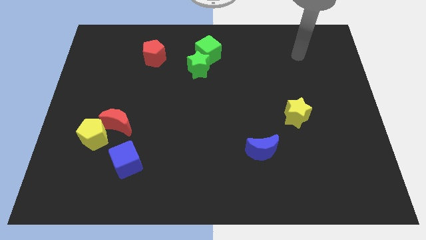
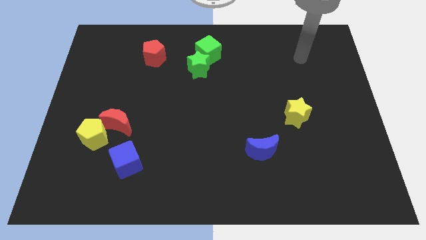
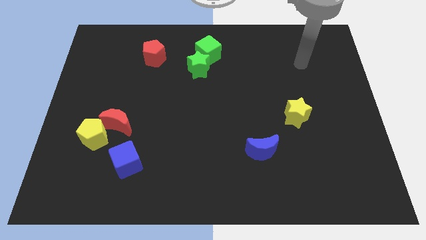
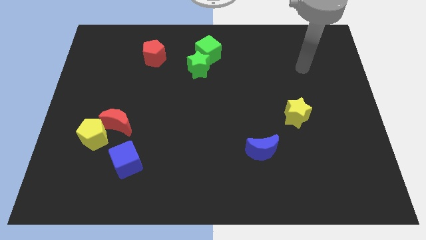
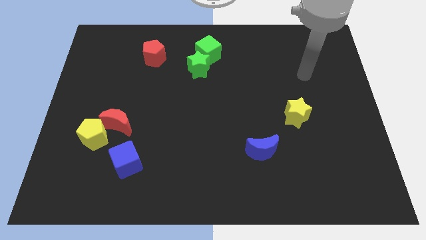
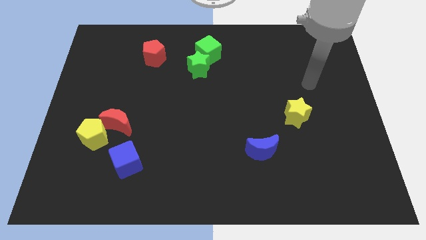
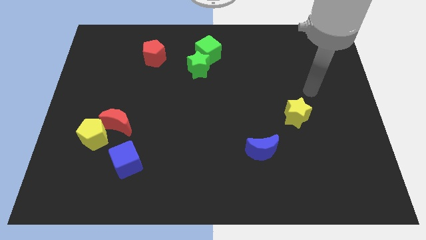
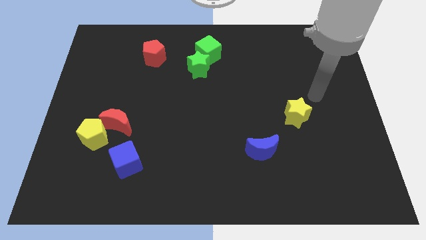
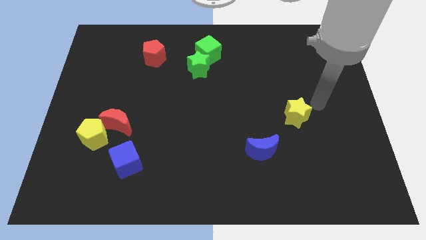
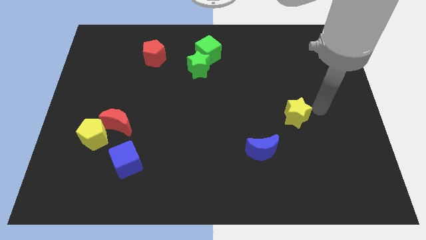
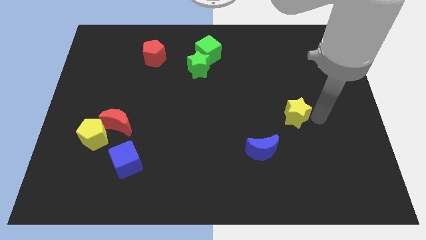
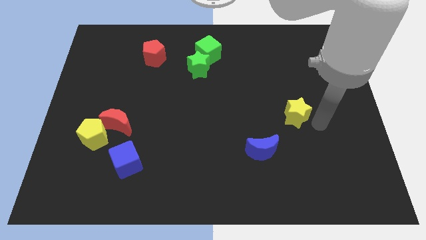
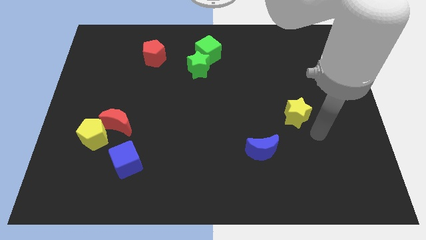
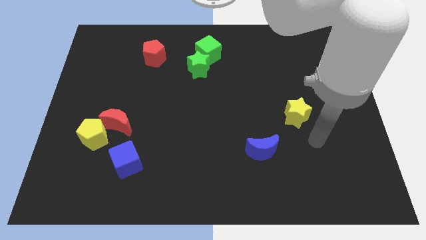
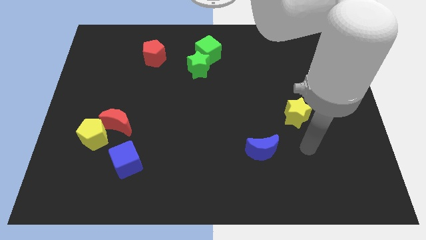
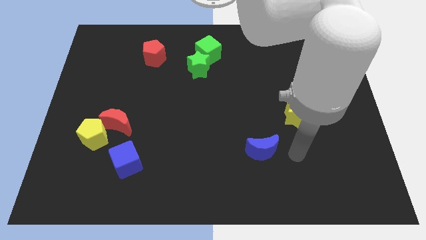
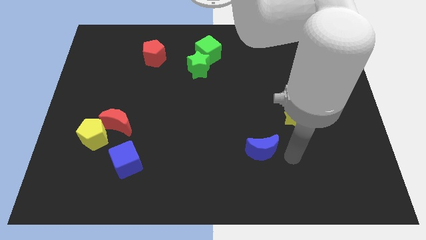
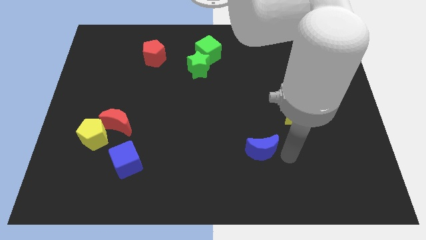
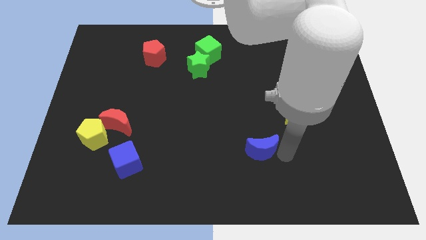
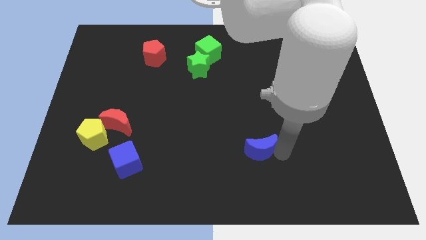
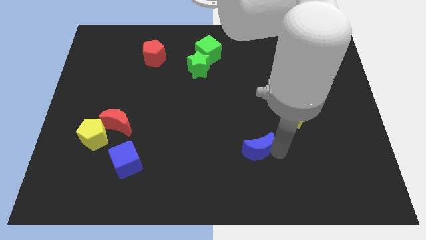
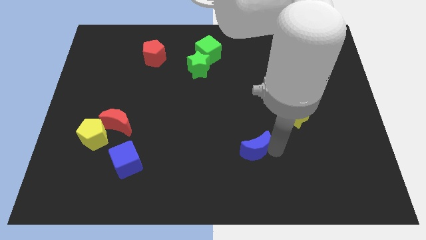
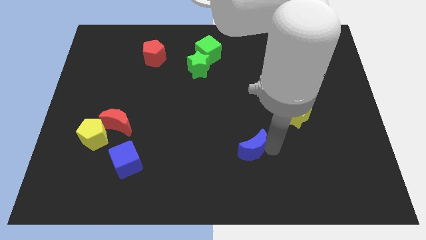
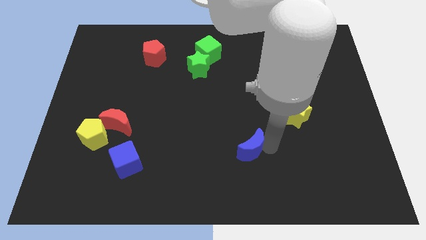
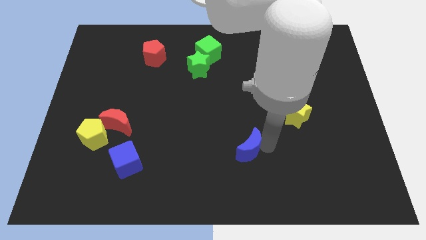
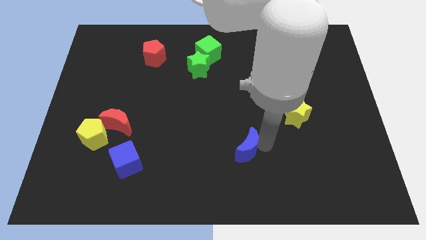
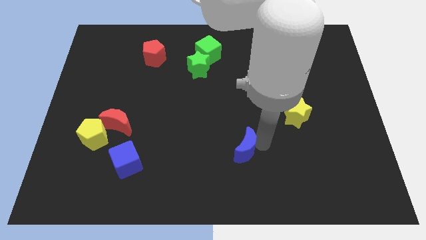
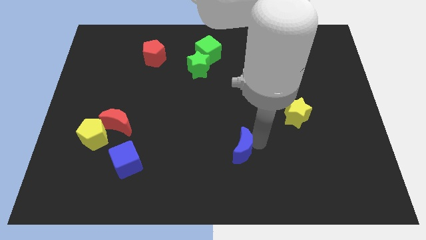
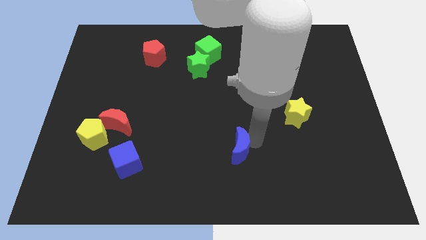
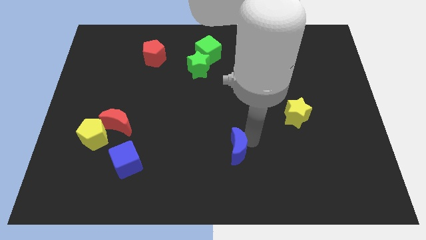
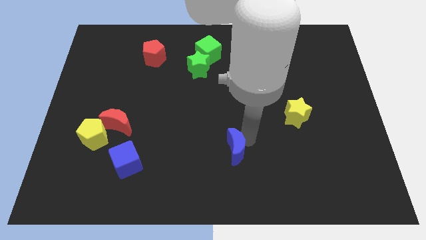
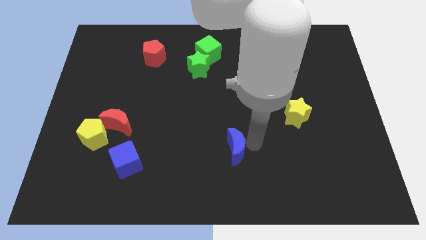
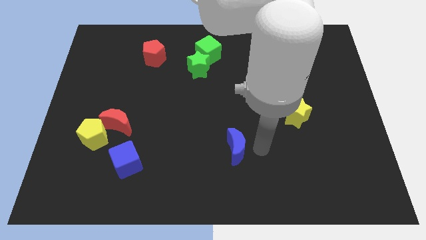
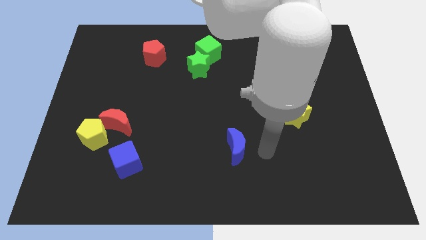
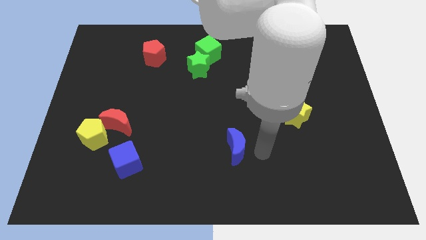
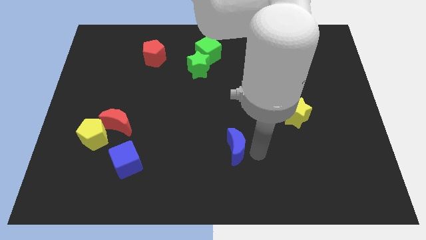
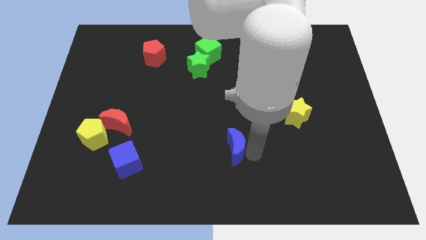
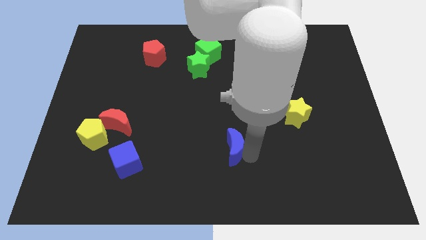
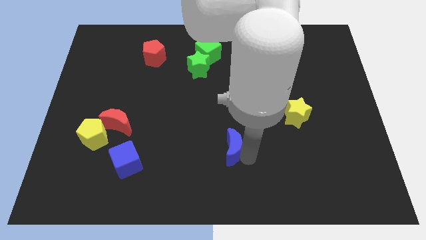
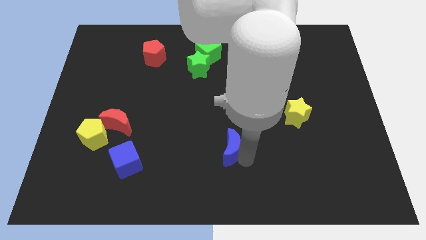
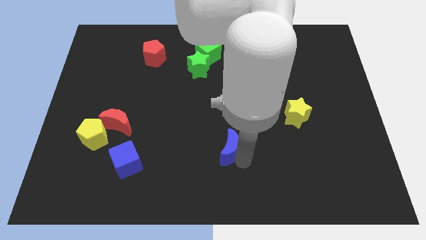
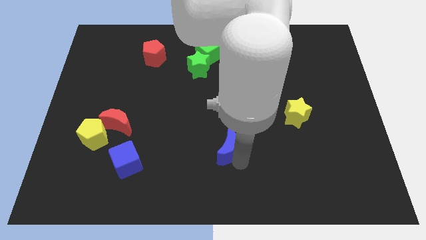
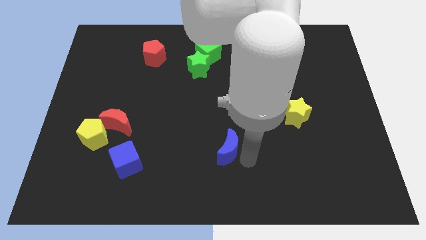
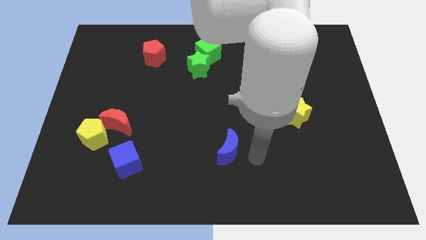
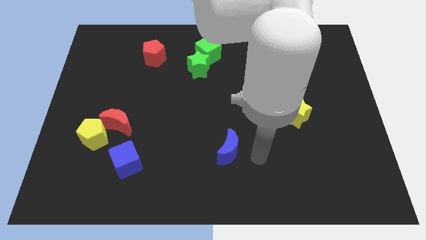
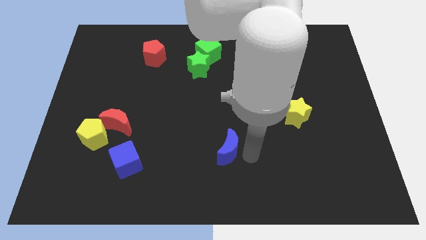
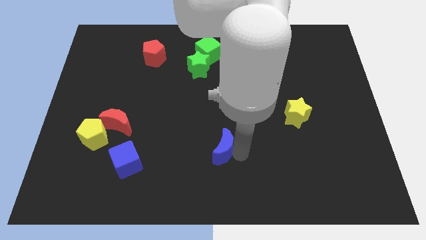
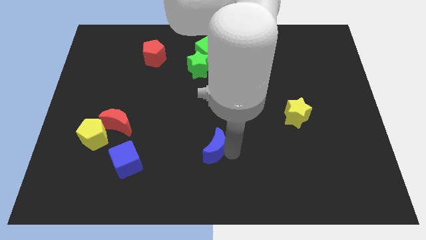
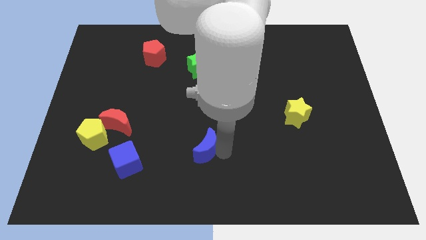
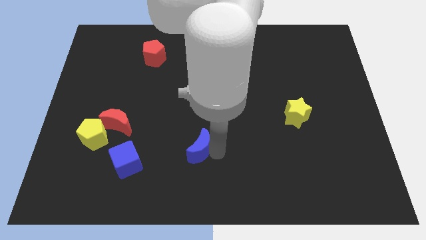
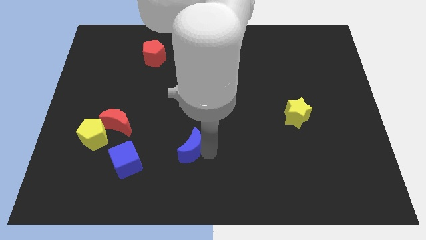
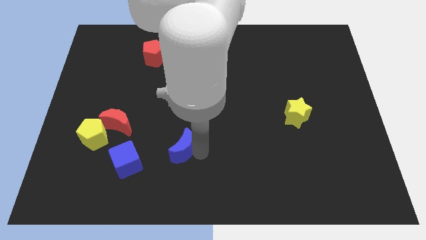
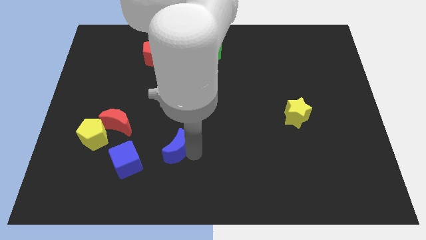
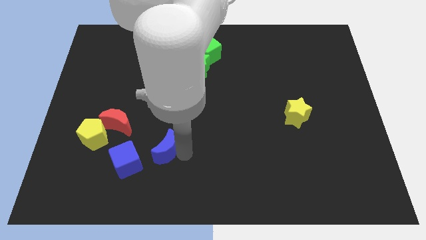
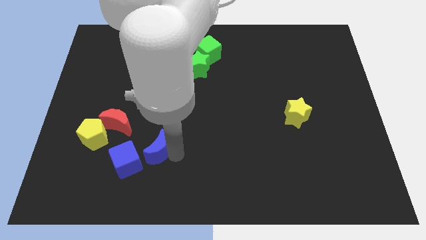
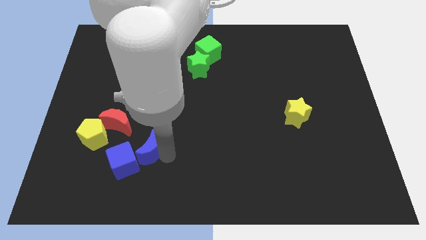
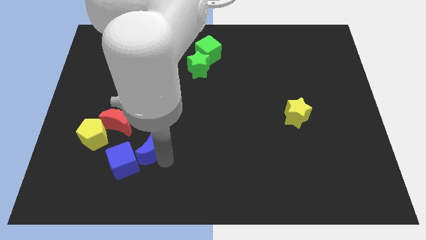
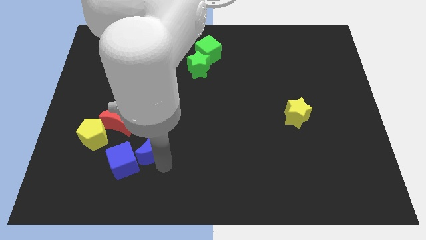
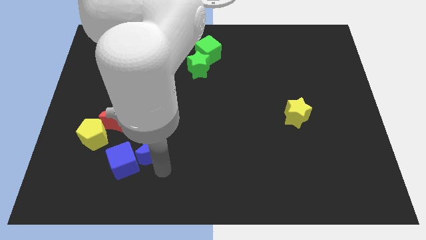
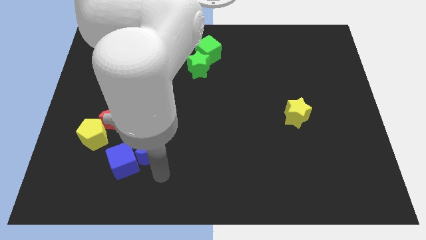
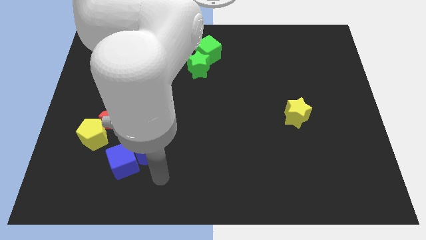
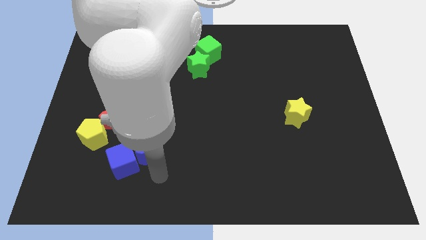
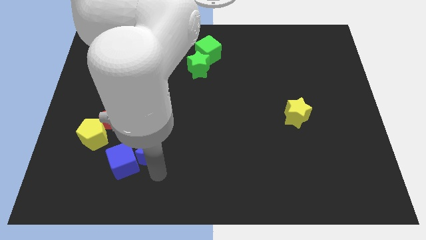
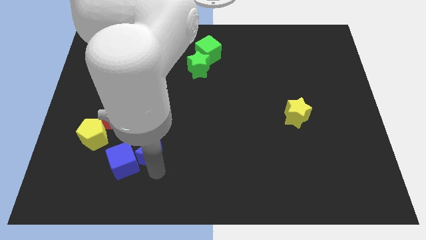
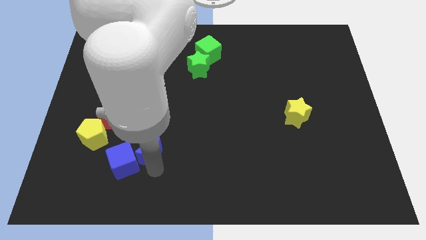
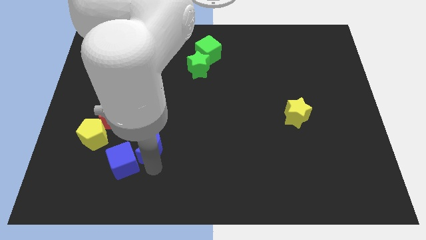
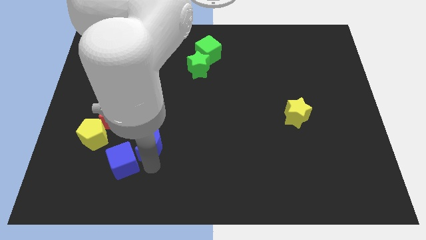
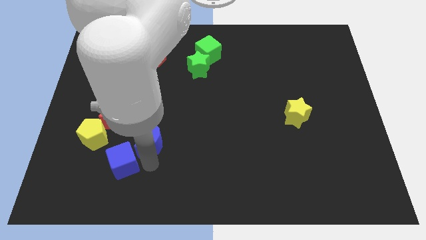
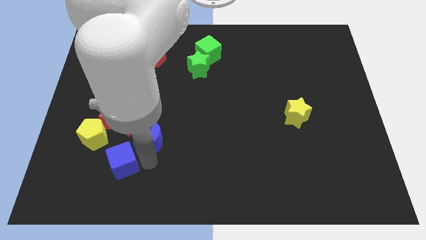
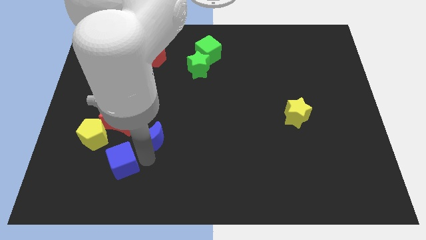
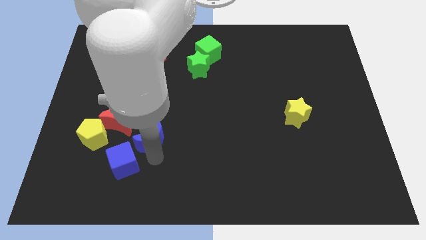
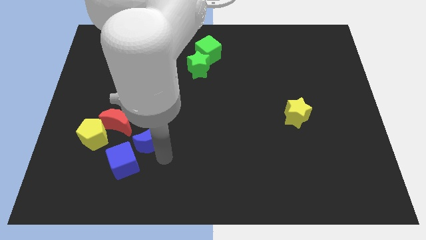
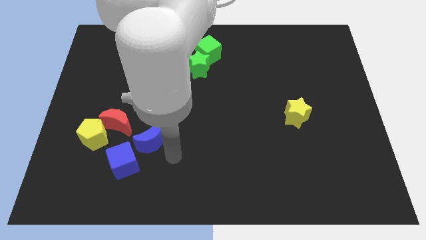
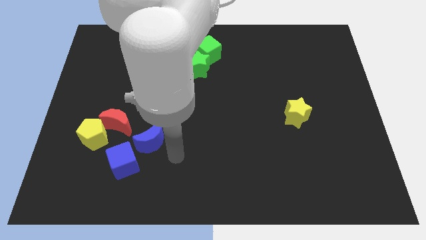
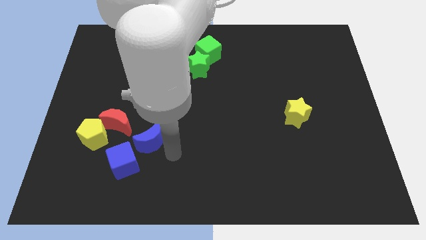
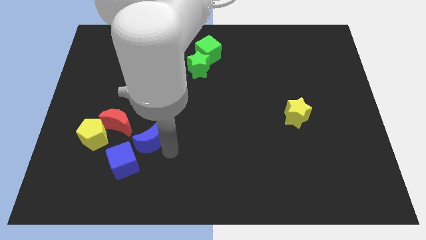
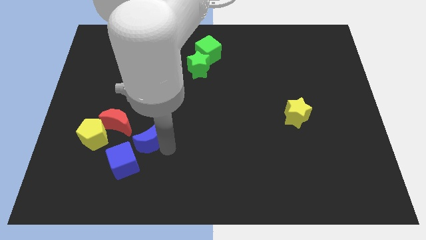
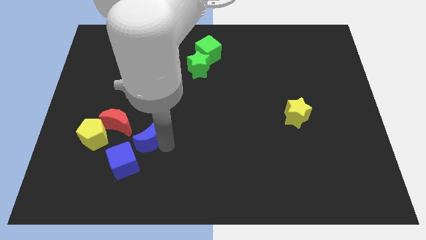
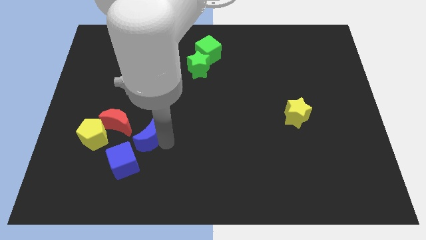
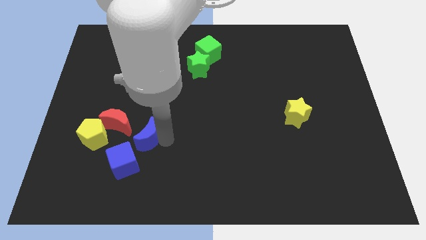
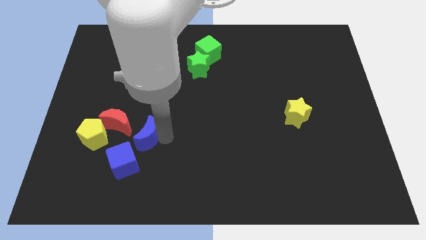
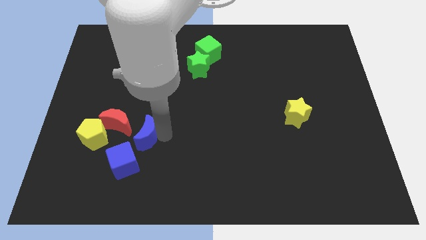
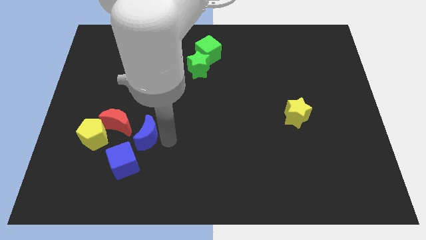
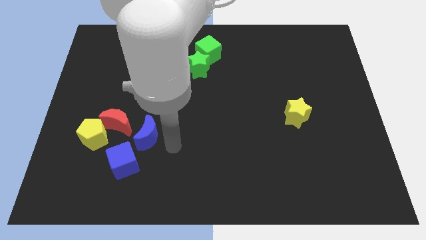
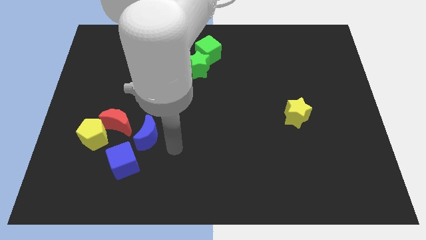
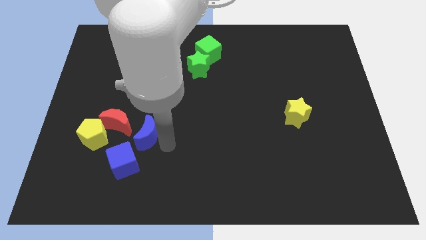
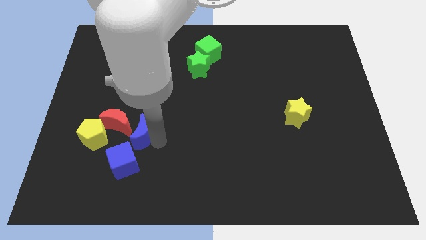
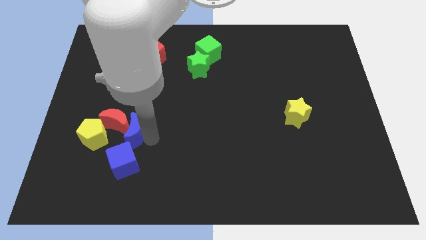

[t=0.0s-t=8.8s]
move the blue moon close to the red moon
